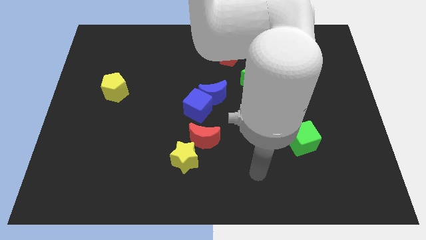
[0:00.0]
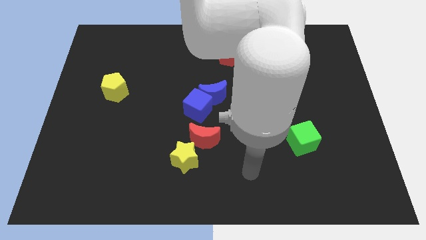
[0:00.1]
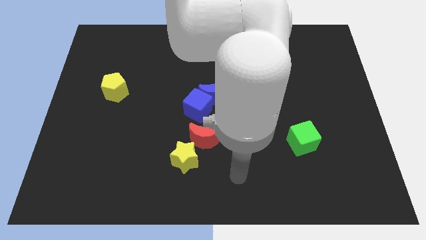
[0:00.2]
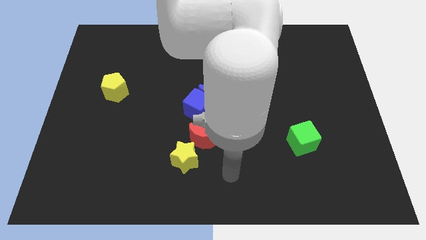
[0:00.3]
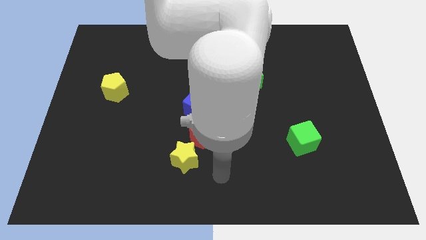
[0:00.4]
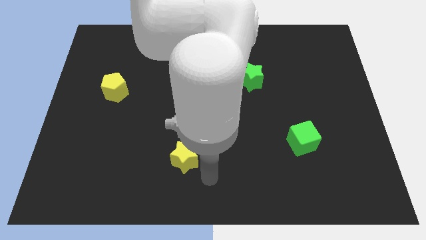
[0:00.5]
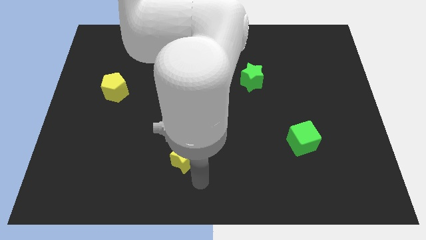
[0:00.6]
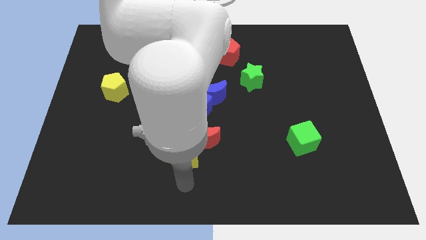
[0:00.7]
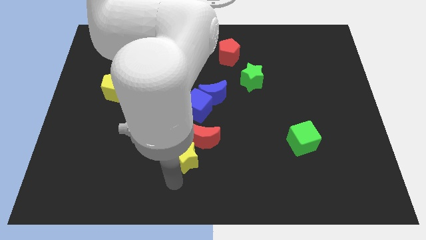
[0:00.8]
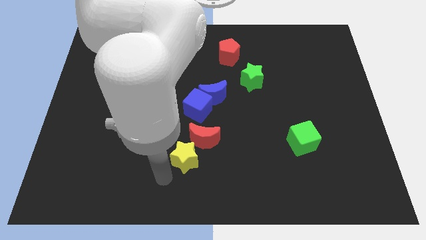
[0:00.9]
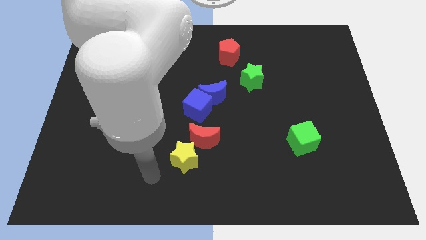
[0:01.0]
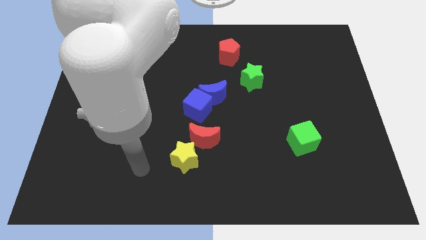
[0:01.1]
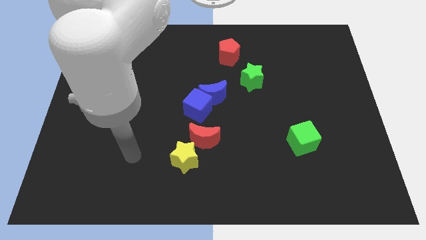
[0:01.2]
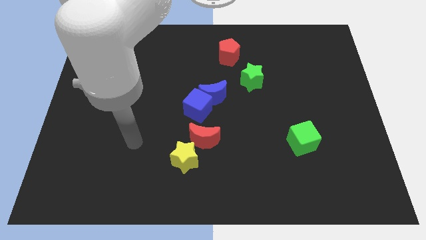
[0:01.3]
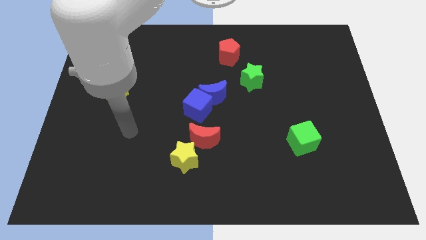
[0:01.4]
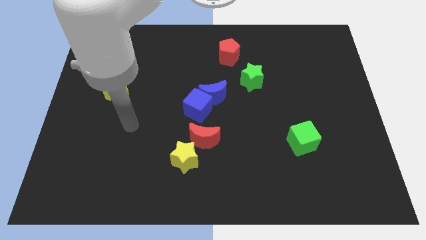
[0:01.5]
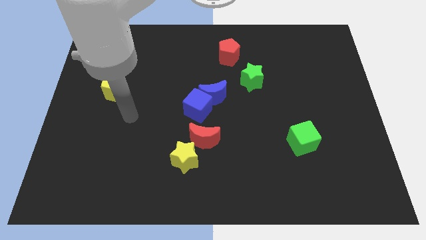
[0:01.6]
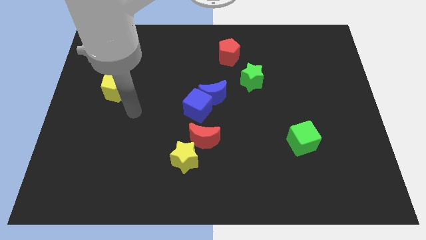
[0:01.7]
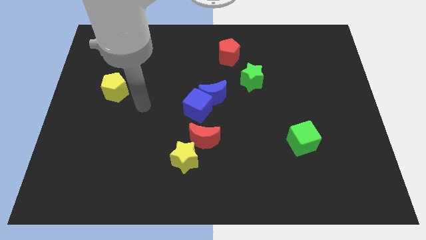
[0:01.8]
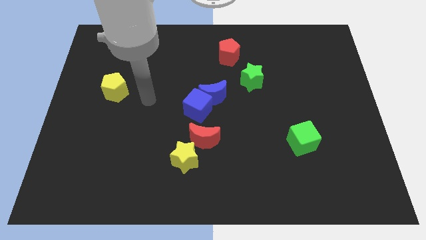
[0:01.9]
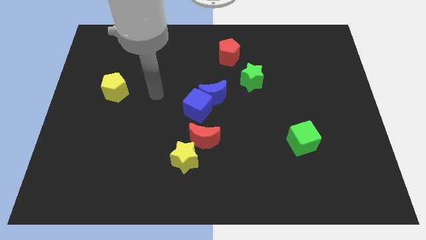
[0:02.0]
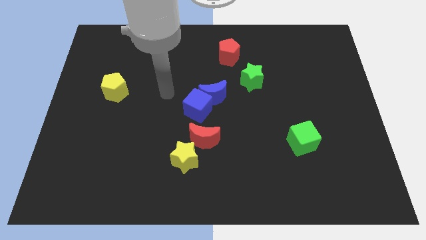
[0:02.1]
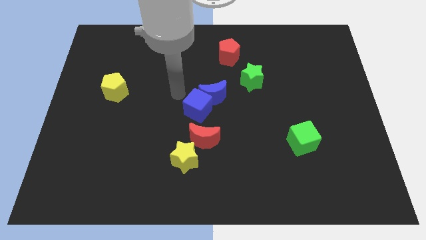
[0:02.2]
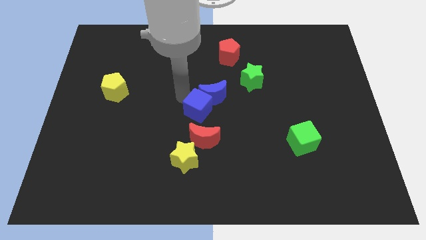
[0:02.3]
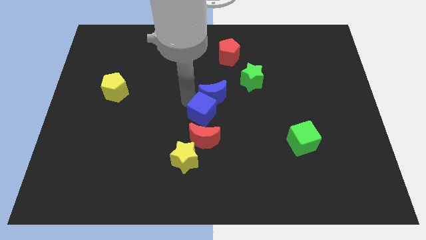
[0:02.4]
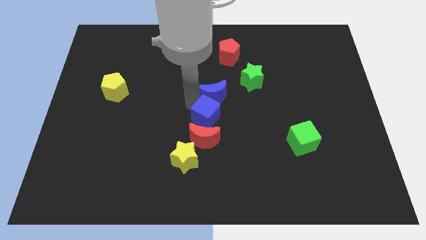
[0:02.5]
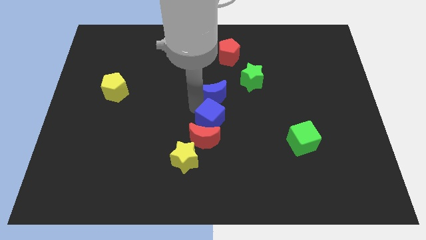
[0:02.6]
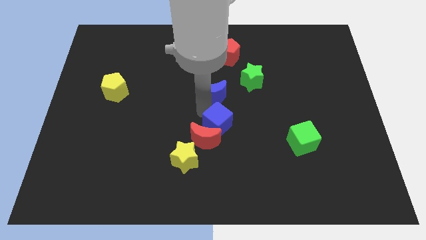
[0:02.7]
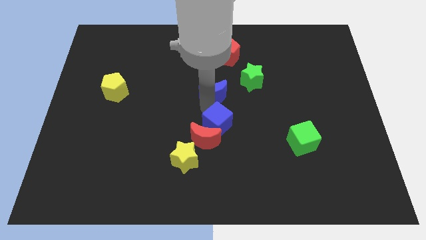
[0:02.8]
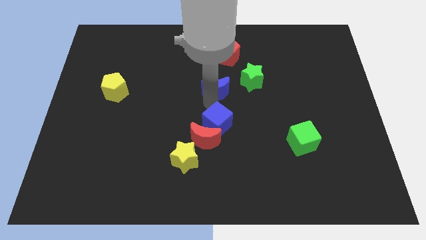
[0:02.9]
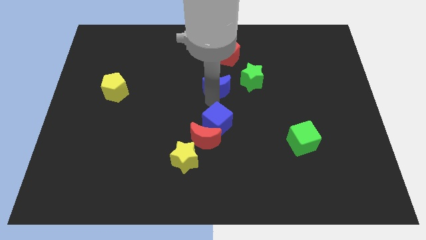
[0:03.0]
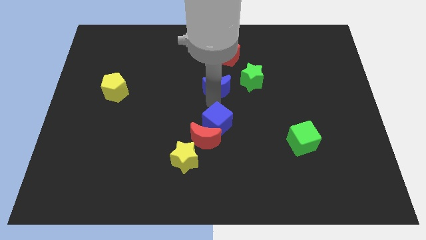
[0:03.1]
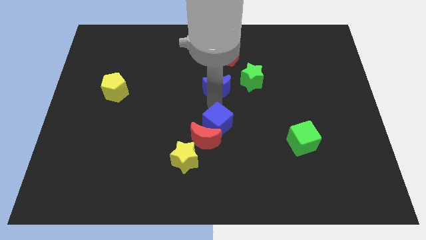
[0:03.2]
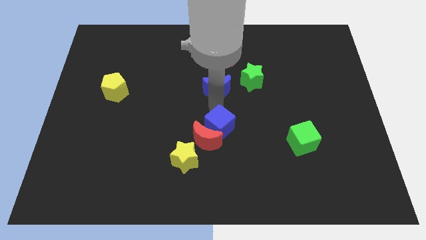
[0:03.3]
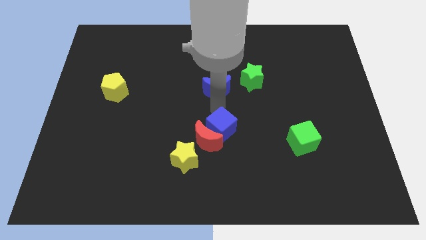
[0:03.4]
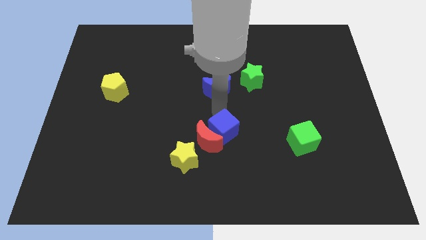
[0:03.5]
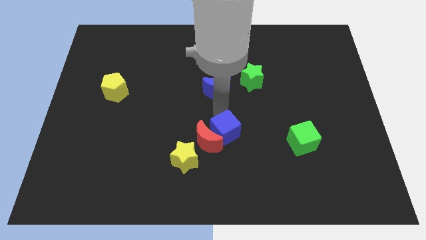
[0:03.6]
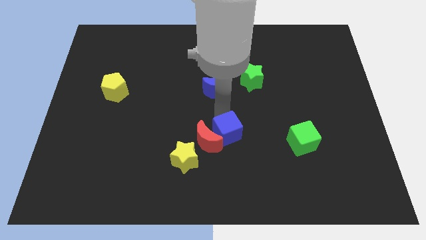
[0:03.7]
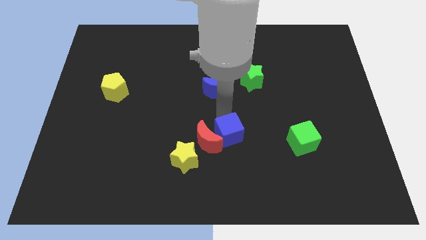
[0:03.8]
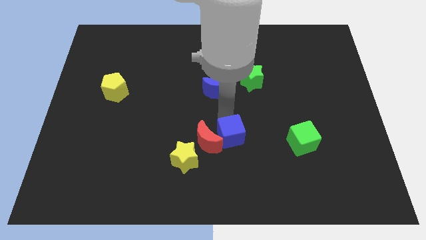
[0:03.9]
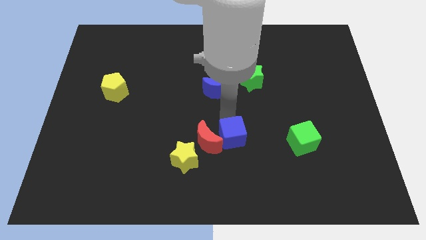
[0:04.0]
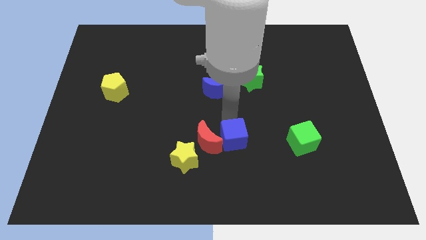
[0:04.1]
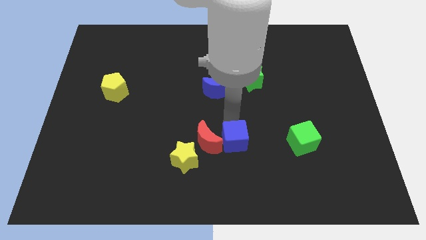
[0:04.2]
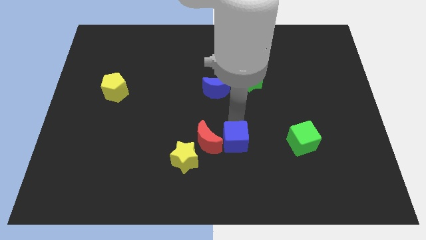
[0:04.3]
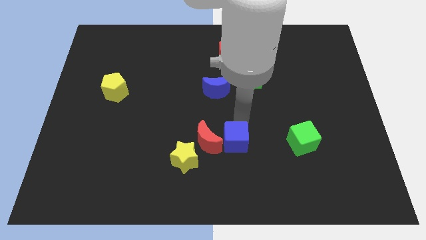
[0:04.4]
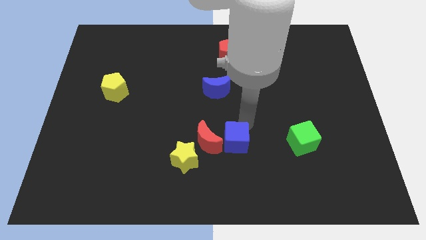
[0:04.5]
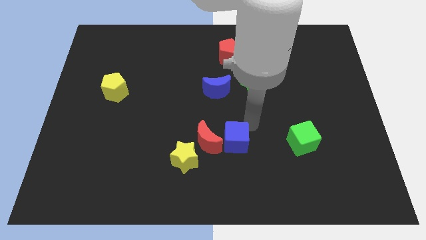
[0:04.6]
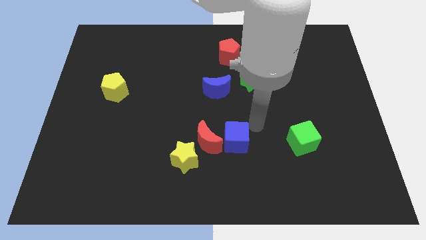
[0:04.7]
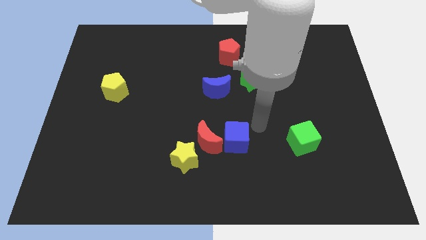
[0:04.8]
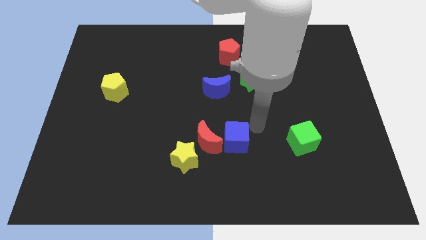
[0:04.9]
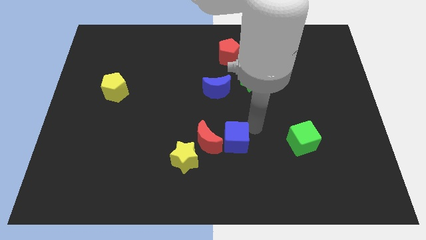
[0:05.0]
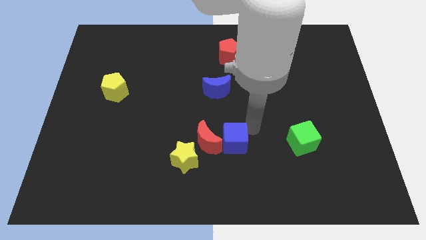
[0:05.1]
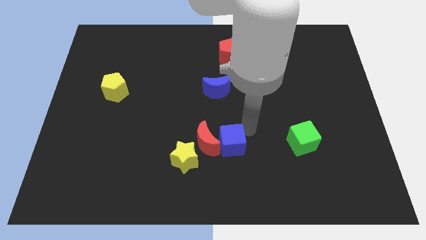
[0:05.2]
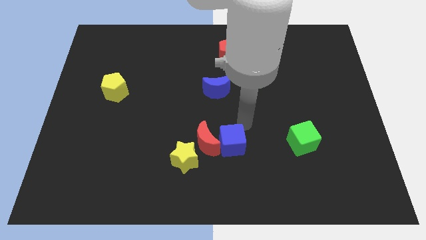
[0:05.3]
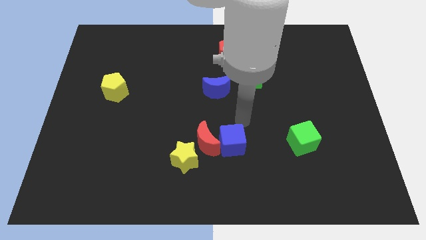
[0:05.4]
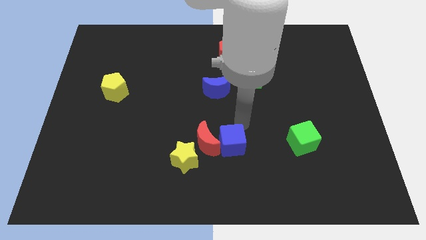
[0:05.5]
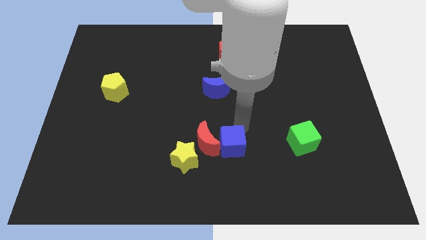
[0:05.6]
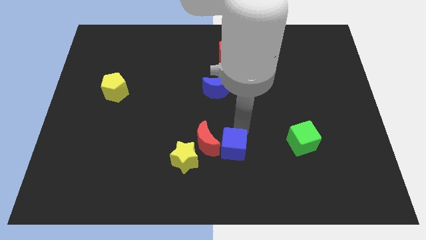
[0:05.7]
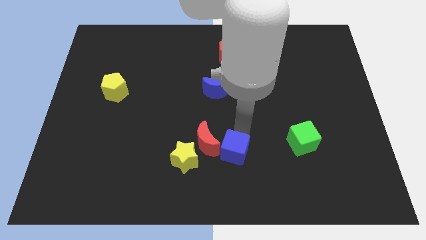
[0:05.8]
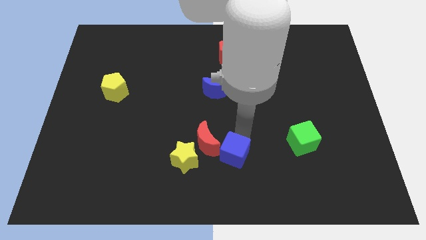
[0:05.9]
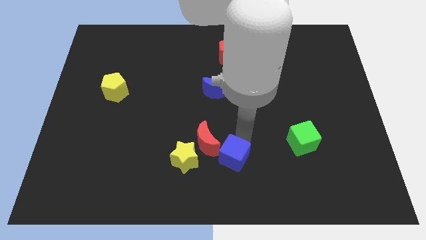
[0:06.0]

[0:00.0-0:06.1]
move the blue cube to the bottom

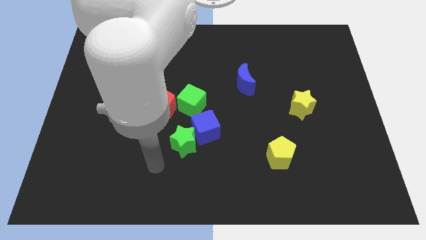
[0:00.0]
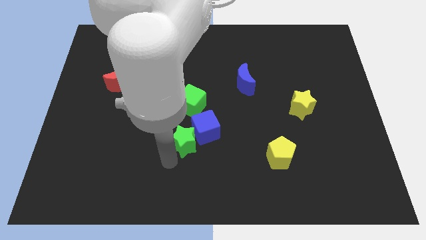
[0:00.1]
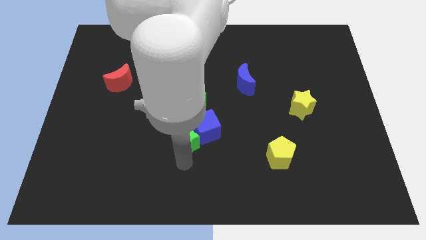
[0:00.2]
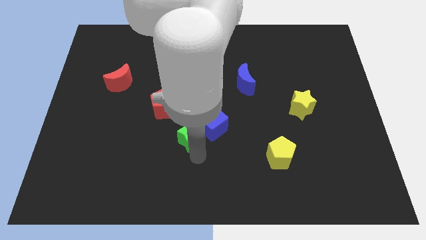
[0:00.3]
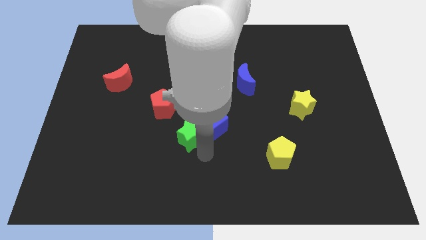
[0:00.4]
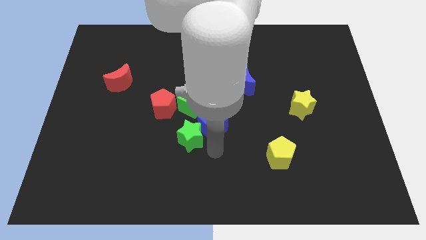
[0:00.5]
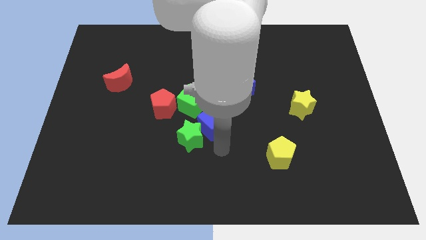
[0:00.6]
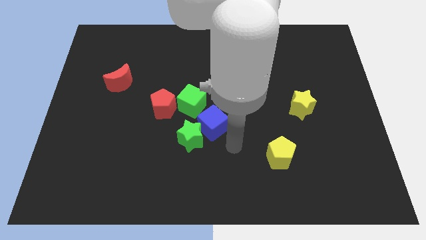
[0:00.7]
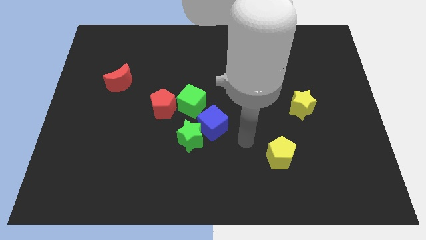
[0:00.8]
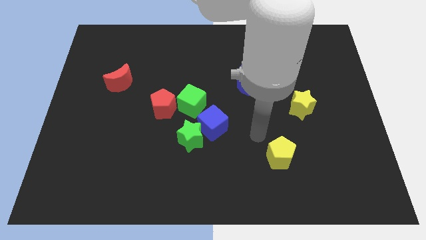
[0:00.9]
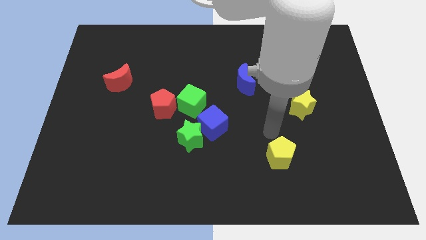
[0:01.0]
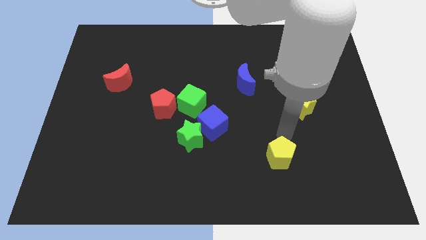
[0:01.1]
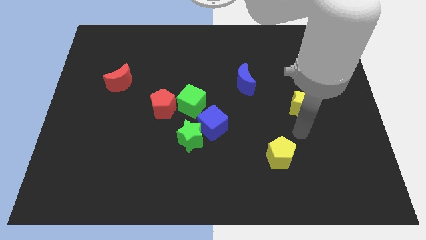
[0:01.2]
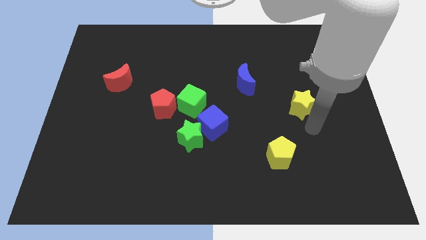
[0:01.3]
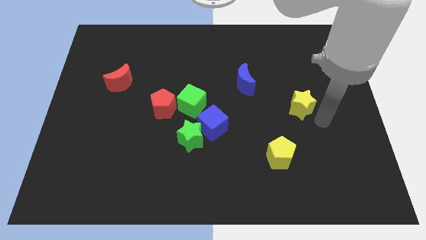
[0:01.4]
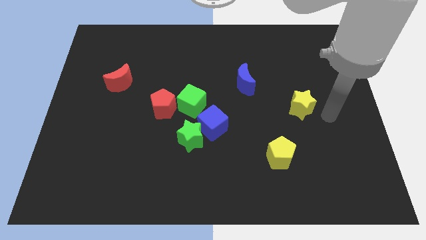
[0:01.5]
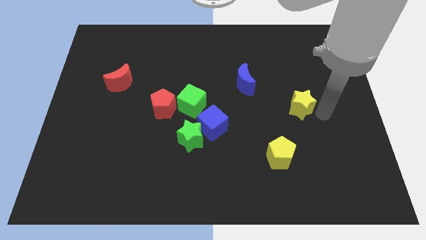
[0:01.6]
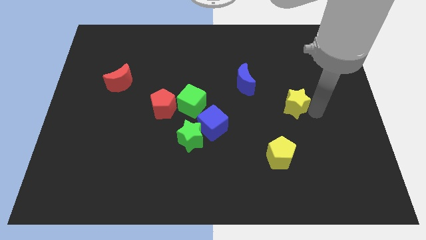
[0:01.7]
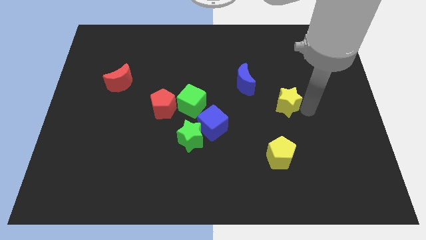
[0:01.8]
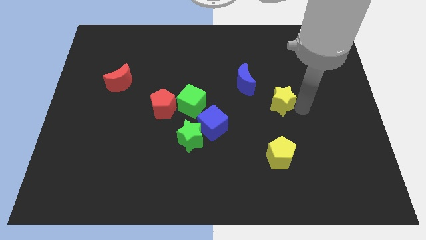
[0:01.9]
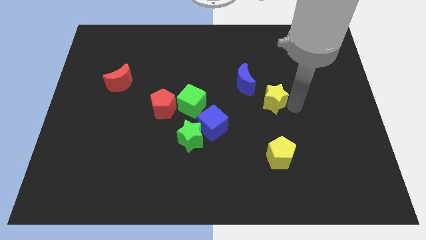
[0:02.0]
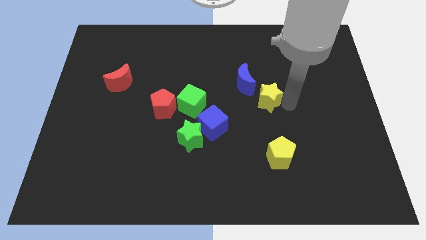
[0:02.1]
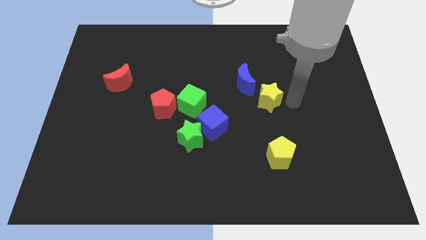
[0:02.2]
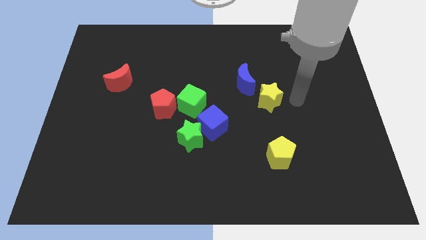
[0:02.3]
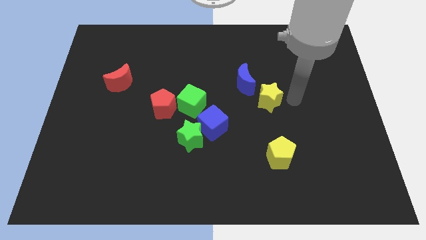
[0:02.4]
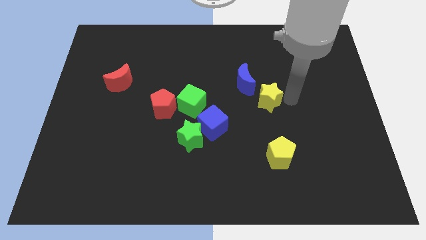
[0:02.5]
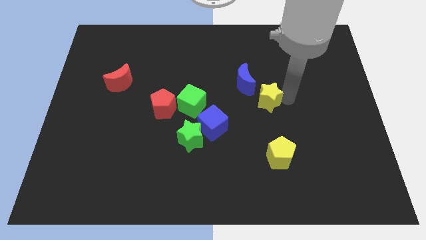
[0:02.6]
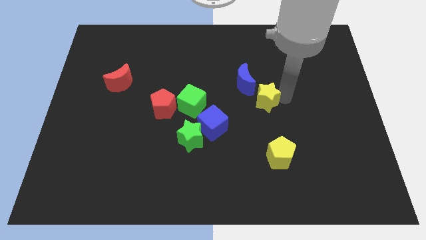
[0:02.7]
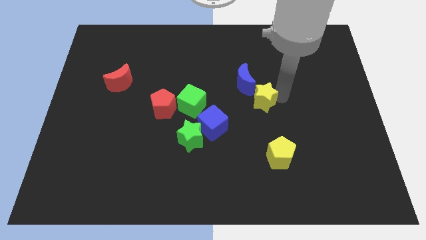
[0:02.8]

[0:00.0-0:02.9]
slide the yellow star to the middle
